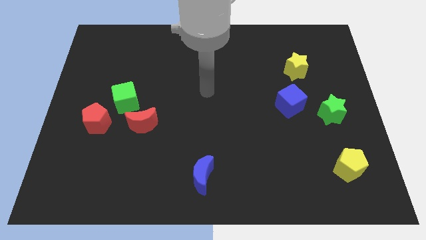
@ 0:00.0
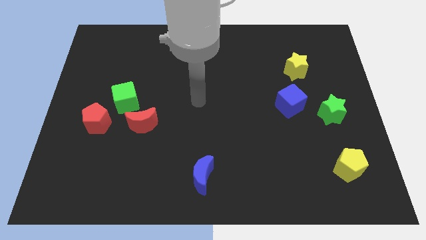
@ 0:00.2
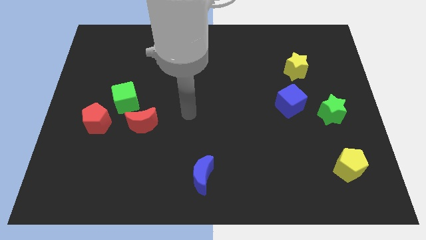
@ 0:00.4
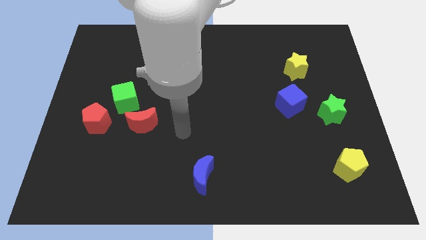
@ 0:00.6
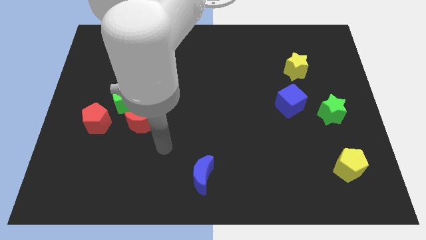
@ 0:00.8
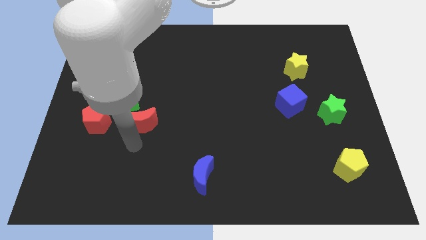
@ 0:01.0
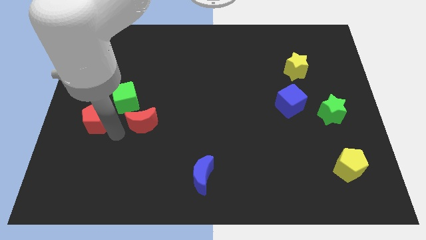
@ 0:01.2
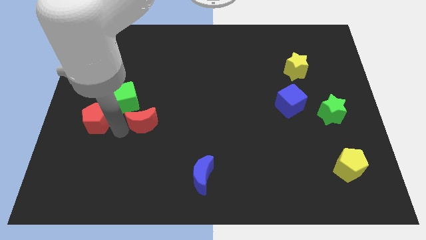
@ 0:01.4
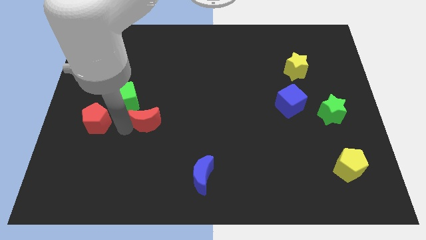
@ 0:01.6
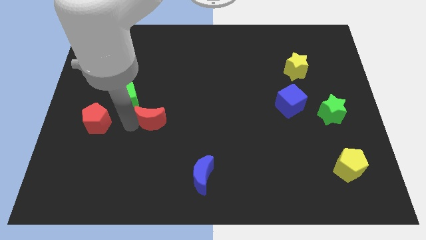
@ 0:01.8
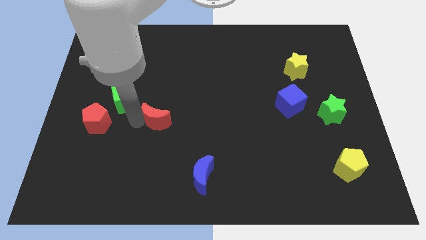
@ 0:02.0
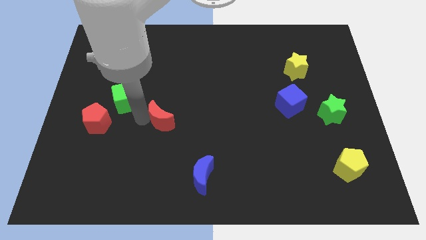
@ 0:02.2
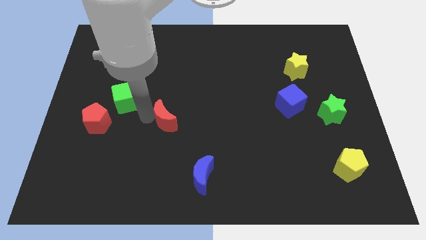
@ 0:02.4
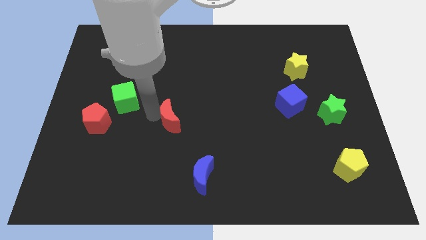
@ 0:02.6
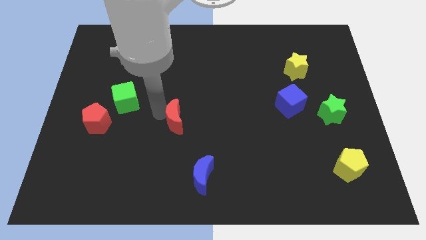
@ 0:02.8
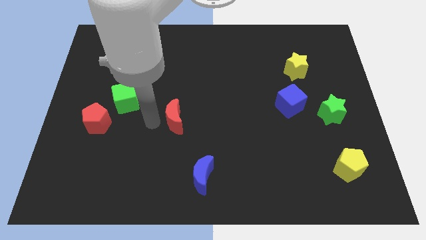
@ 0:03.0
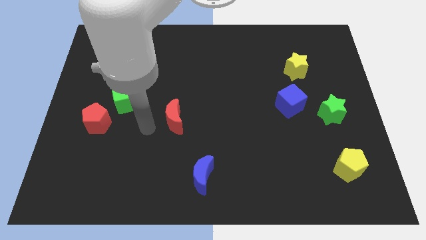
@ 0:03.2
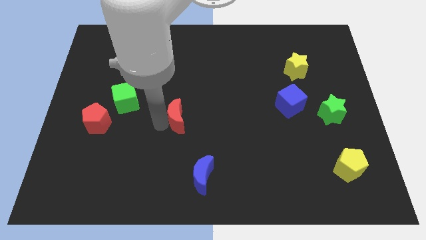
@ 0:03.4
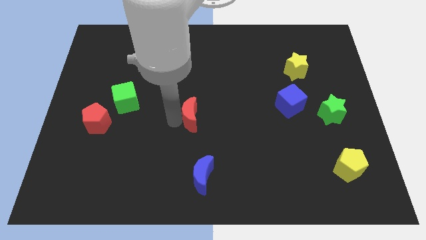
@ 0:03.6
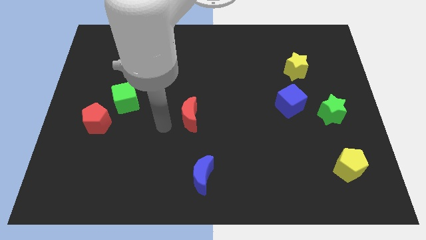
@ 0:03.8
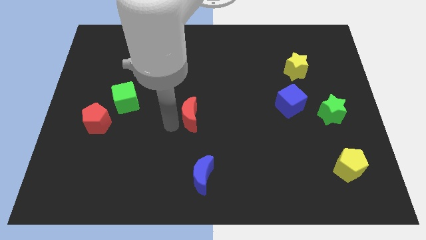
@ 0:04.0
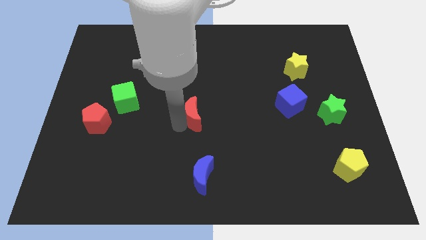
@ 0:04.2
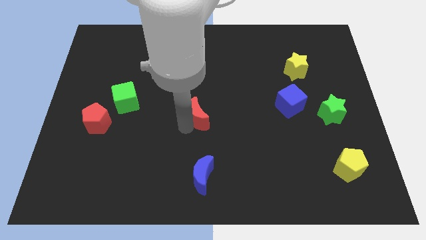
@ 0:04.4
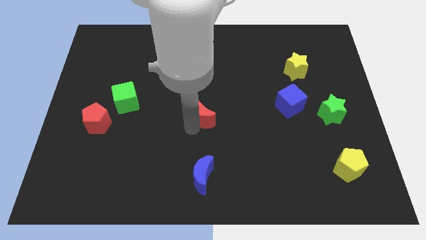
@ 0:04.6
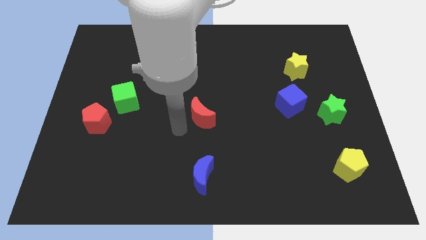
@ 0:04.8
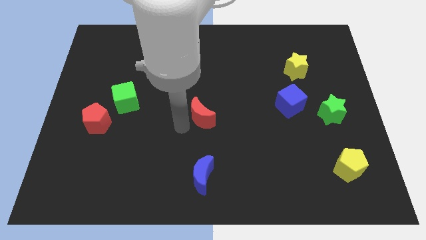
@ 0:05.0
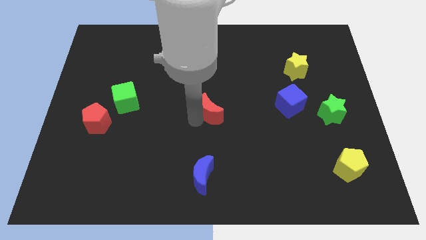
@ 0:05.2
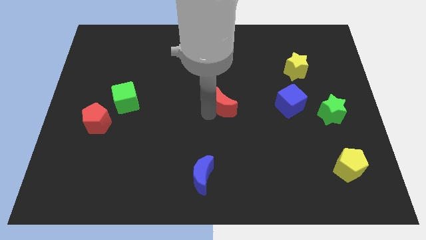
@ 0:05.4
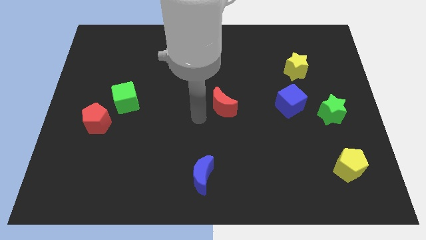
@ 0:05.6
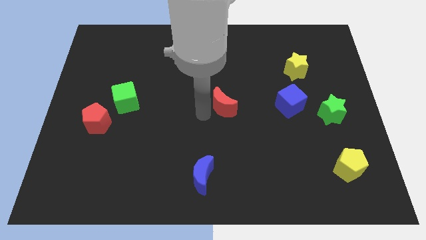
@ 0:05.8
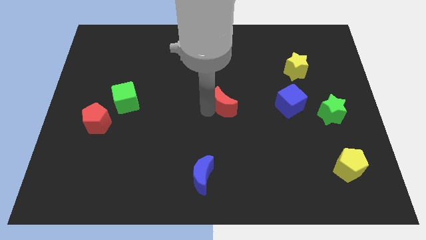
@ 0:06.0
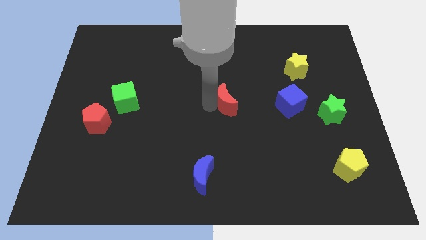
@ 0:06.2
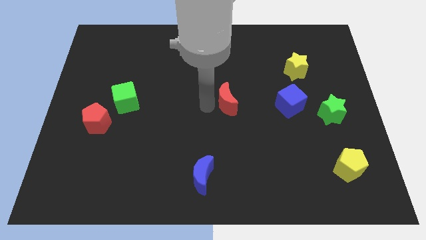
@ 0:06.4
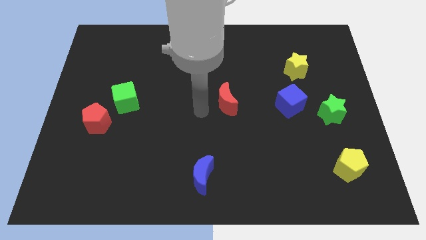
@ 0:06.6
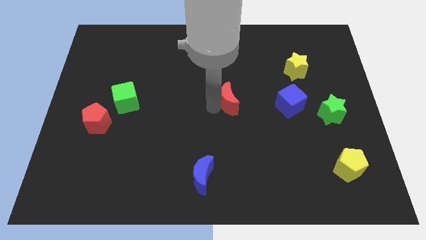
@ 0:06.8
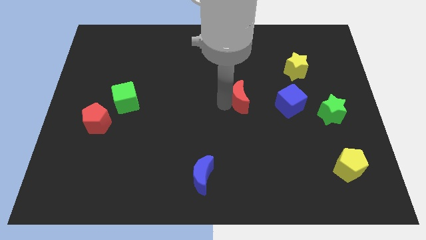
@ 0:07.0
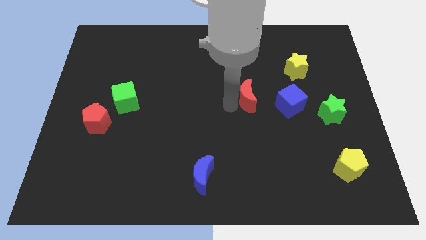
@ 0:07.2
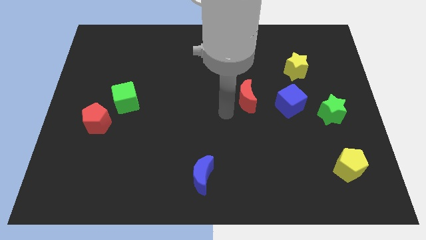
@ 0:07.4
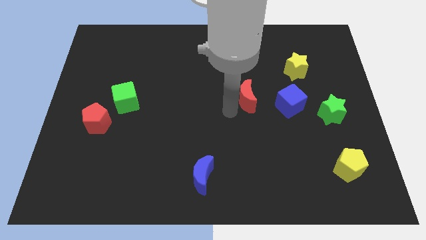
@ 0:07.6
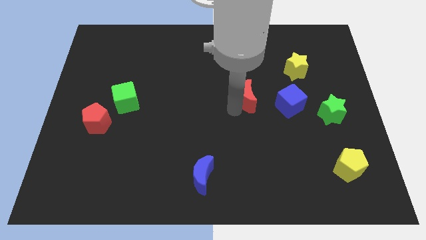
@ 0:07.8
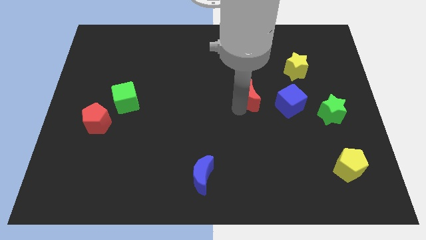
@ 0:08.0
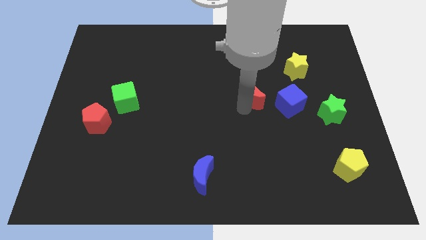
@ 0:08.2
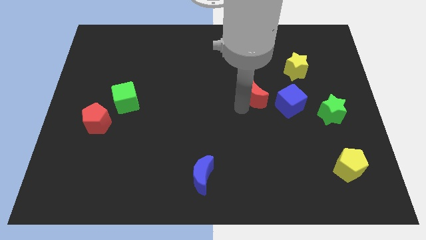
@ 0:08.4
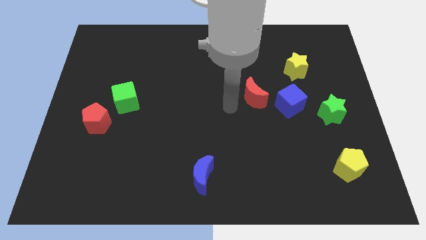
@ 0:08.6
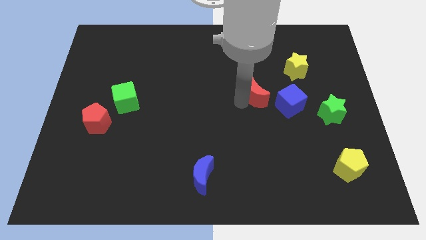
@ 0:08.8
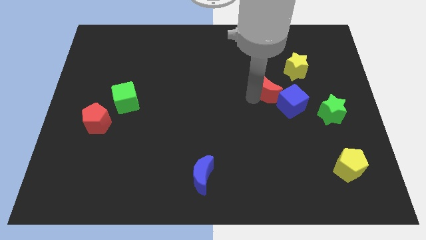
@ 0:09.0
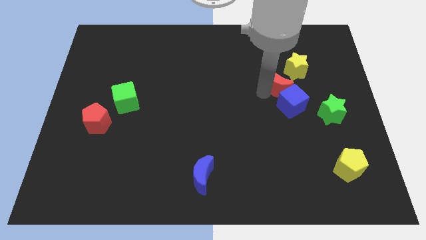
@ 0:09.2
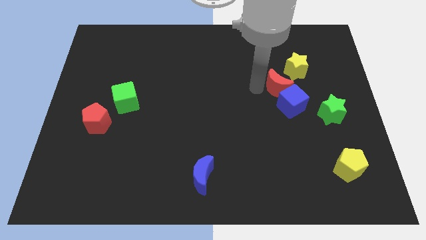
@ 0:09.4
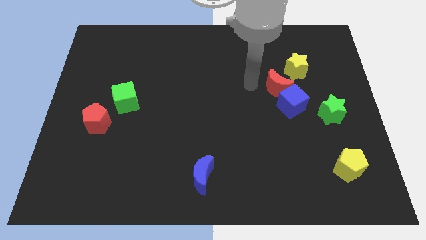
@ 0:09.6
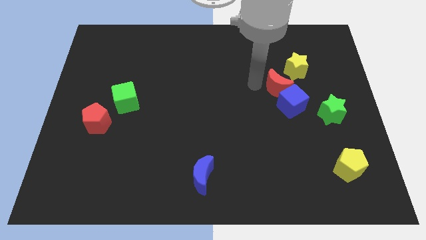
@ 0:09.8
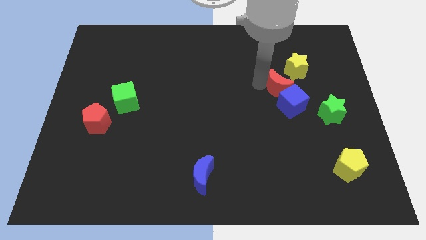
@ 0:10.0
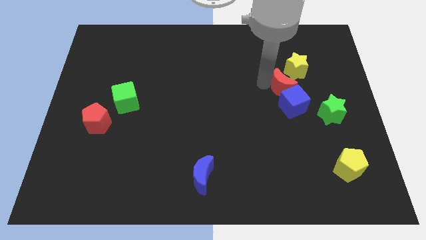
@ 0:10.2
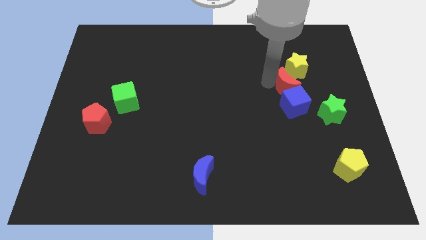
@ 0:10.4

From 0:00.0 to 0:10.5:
move the red moon diagonally up and to the right of the blue cube

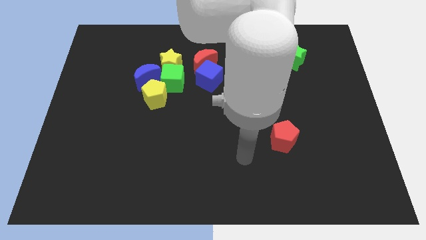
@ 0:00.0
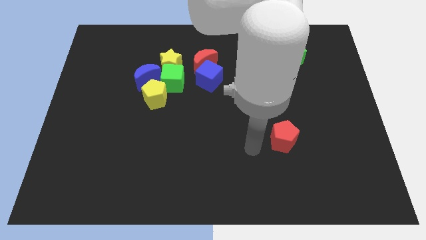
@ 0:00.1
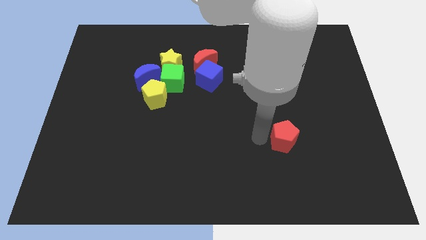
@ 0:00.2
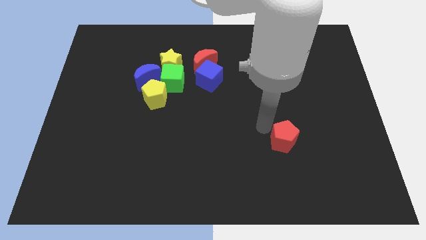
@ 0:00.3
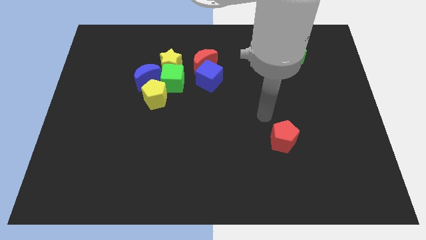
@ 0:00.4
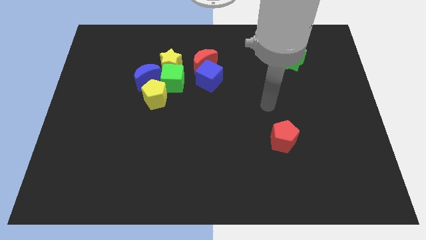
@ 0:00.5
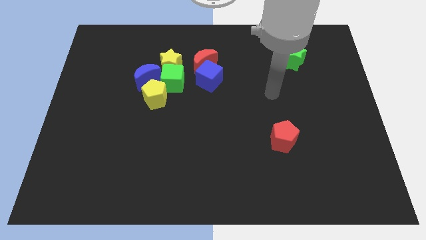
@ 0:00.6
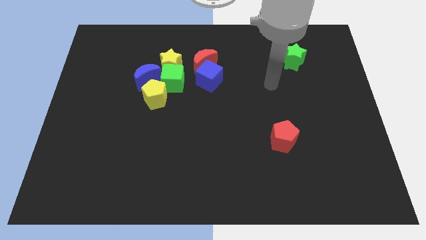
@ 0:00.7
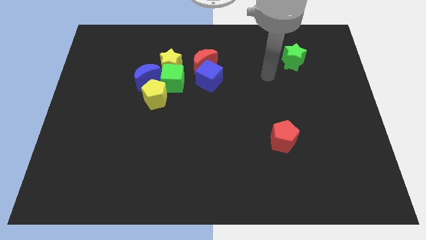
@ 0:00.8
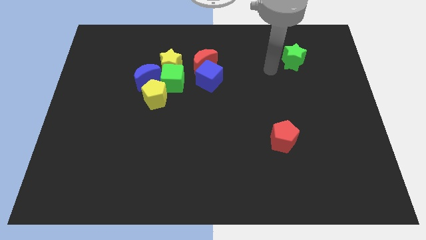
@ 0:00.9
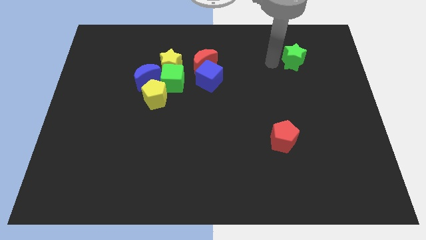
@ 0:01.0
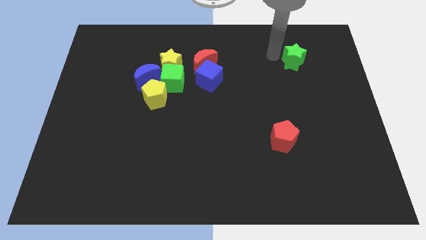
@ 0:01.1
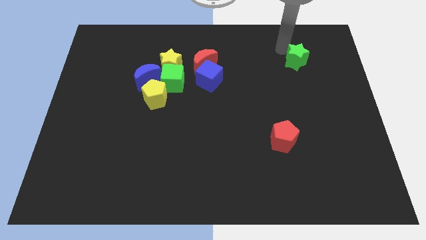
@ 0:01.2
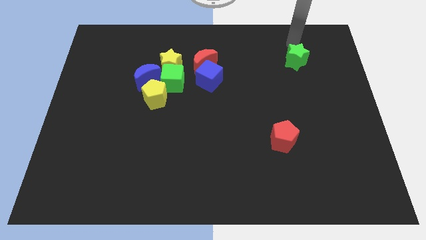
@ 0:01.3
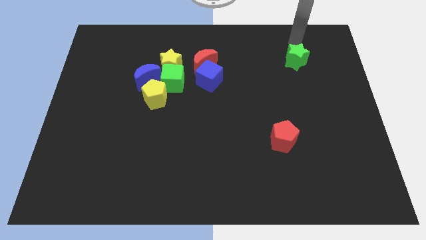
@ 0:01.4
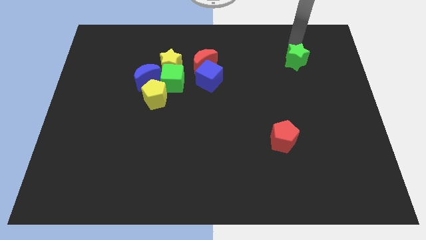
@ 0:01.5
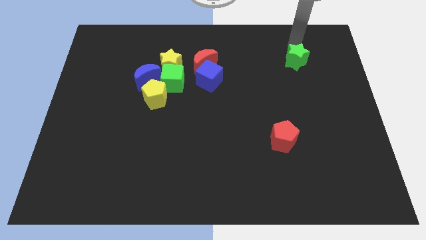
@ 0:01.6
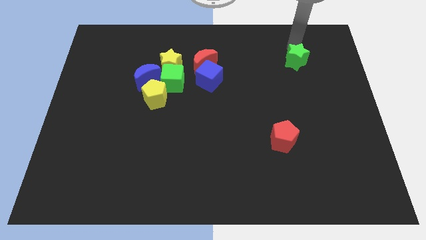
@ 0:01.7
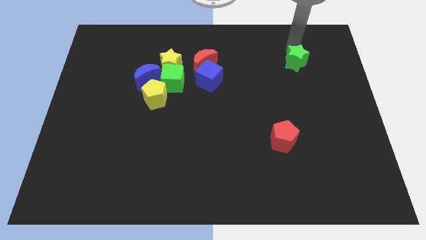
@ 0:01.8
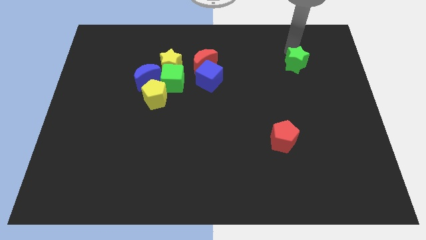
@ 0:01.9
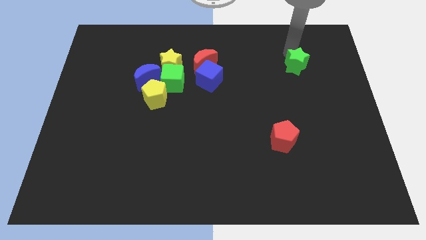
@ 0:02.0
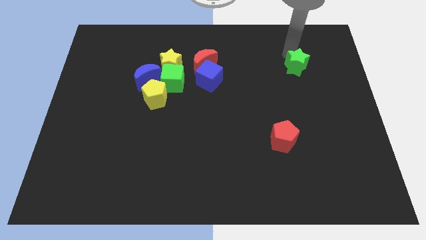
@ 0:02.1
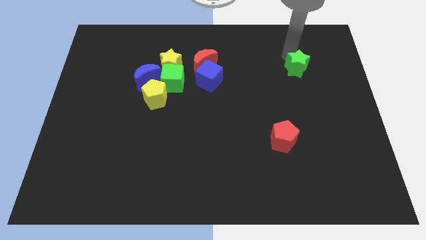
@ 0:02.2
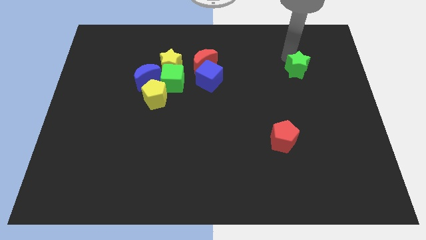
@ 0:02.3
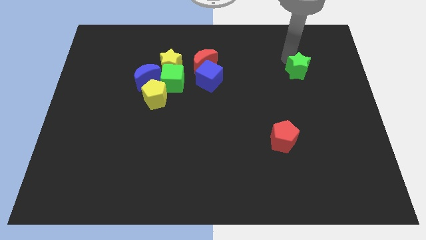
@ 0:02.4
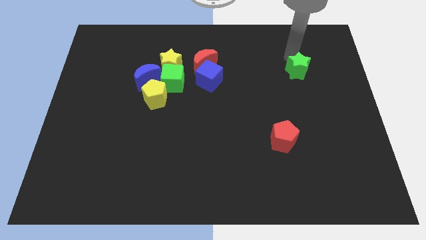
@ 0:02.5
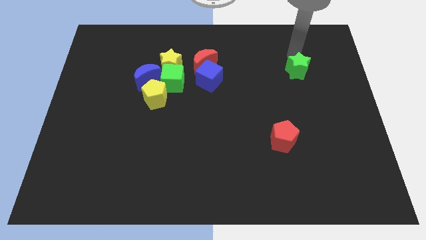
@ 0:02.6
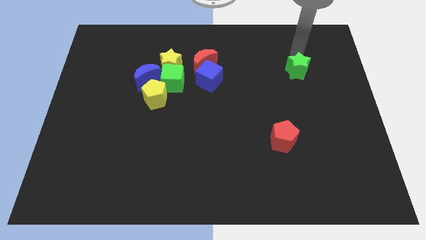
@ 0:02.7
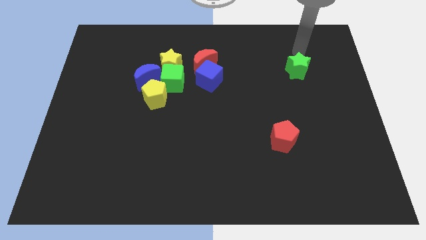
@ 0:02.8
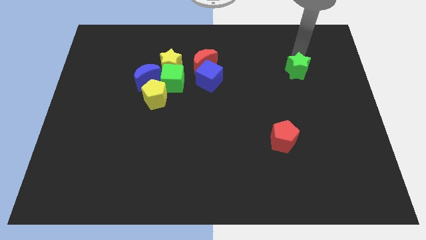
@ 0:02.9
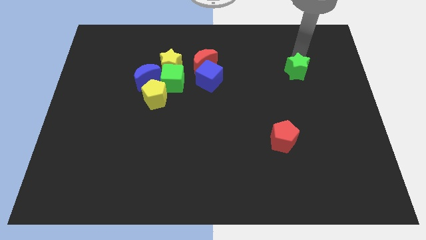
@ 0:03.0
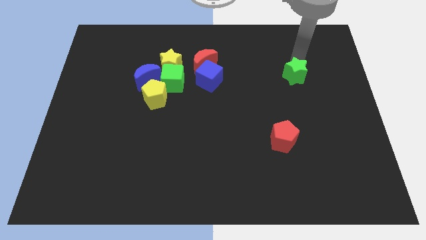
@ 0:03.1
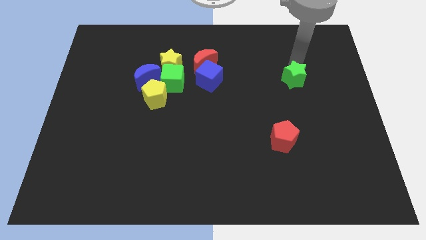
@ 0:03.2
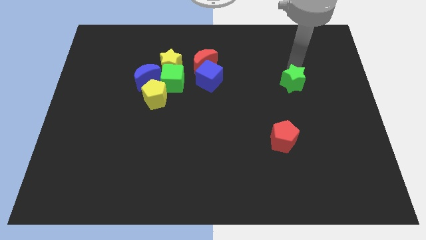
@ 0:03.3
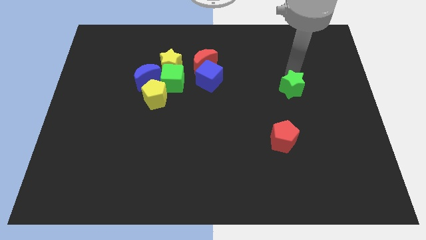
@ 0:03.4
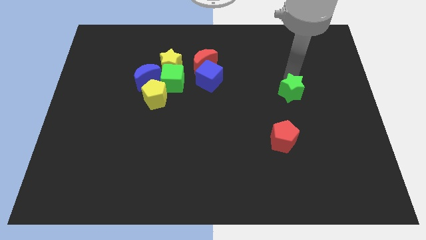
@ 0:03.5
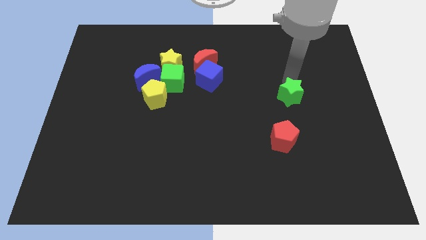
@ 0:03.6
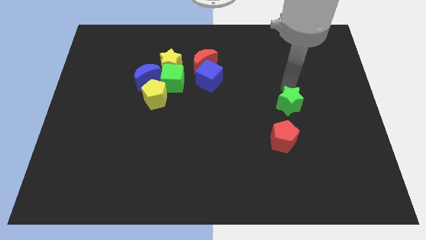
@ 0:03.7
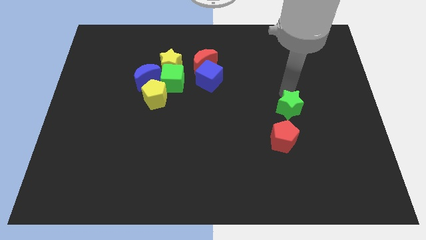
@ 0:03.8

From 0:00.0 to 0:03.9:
slide the green star to the top right of the red pentagon
